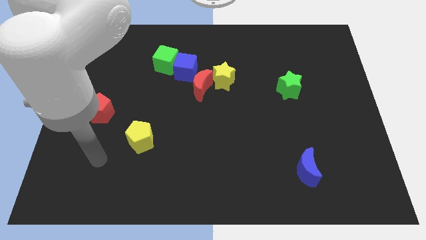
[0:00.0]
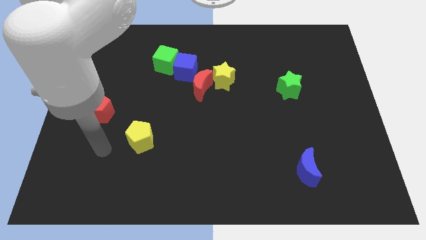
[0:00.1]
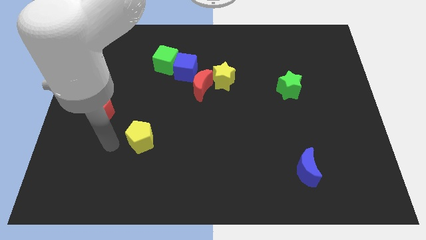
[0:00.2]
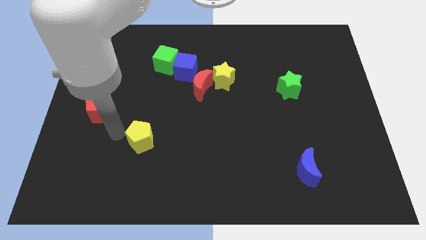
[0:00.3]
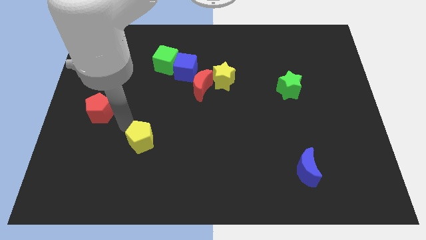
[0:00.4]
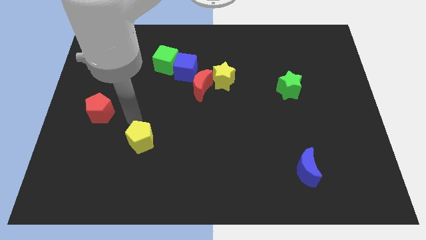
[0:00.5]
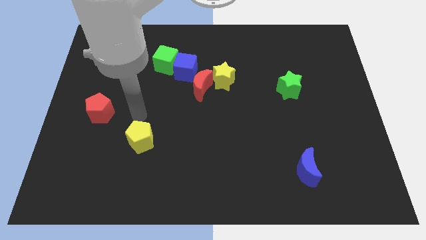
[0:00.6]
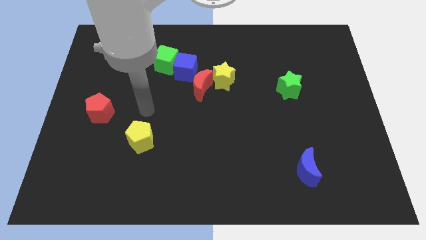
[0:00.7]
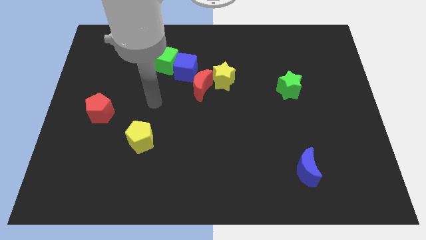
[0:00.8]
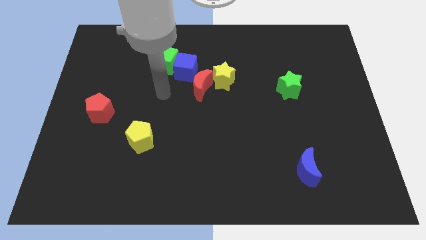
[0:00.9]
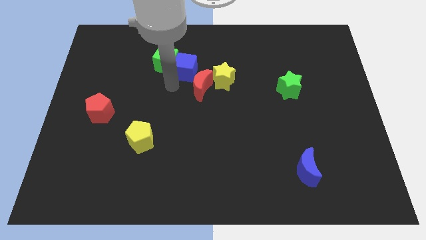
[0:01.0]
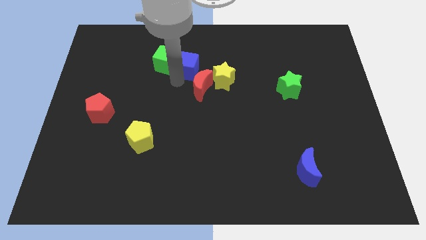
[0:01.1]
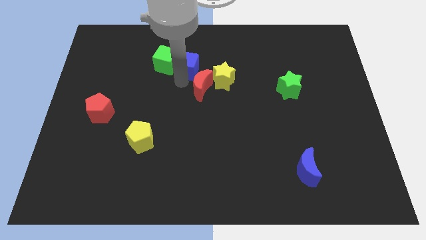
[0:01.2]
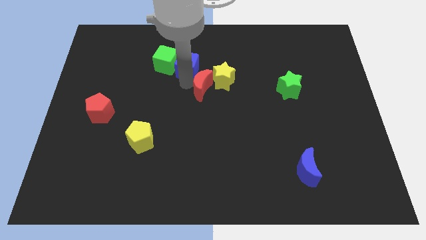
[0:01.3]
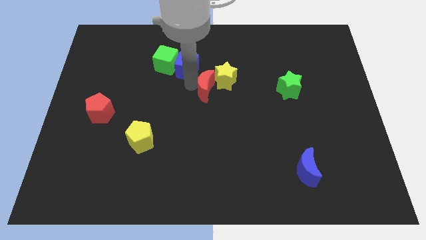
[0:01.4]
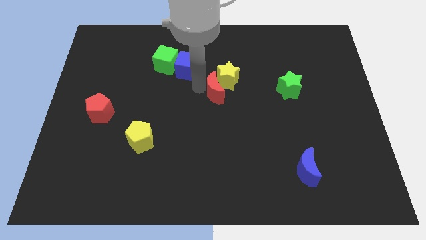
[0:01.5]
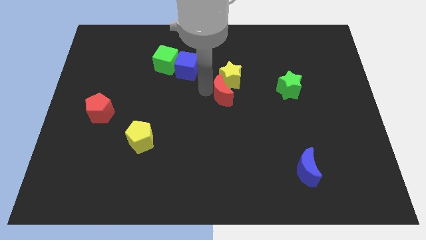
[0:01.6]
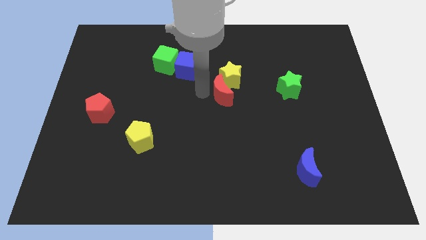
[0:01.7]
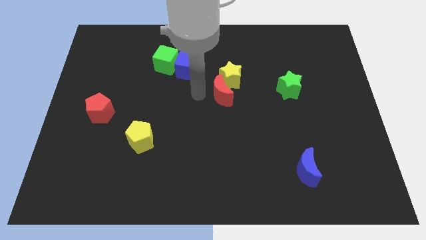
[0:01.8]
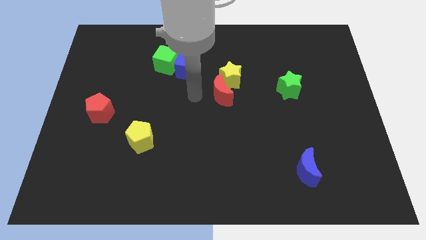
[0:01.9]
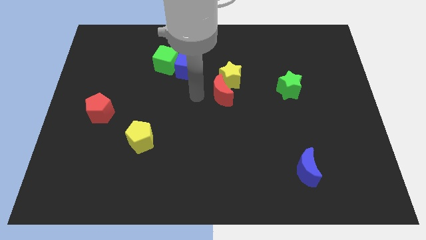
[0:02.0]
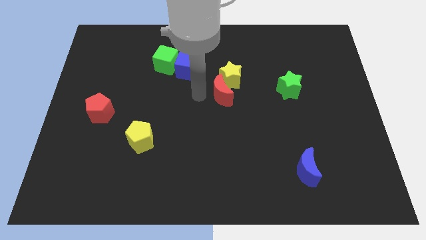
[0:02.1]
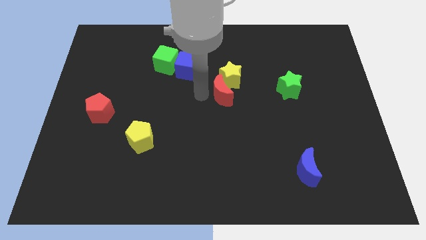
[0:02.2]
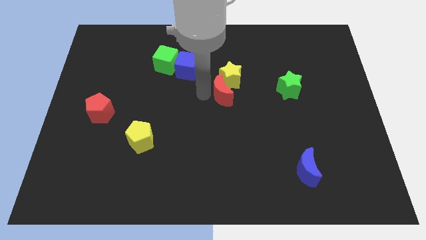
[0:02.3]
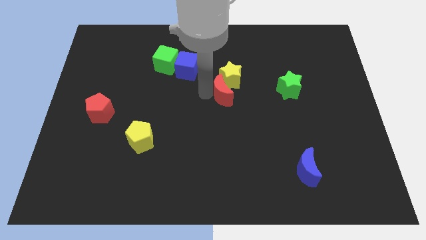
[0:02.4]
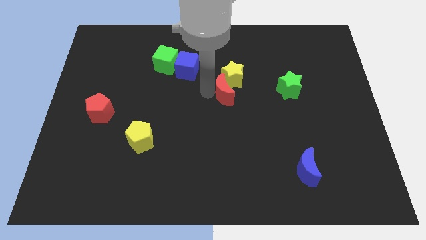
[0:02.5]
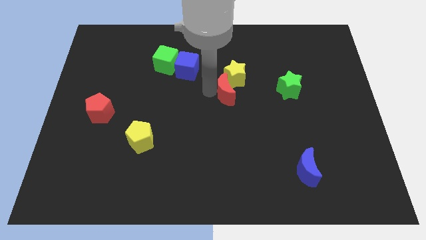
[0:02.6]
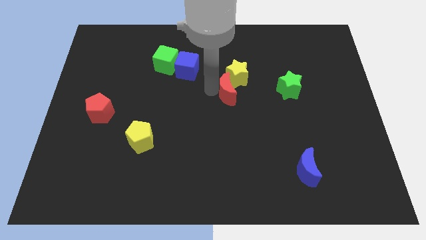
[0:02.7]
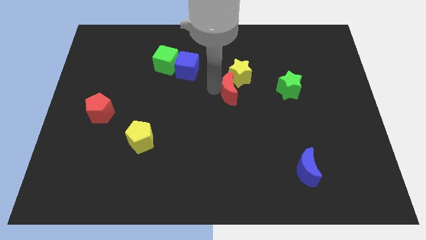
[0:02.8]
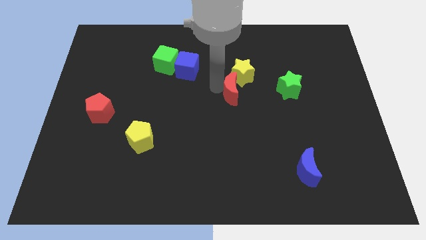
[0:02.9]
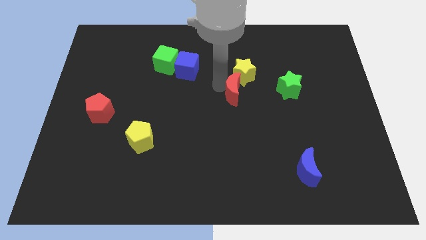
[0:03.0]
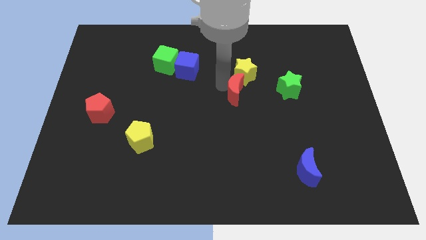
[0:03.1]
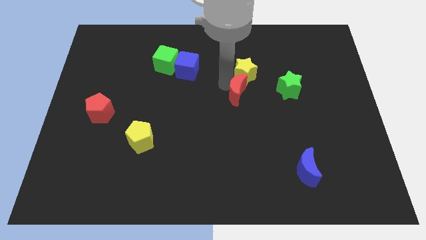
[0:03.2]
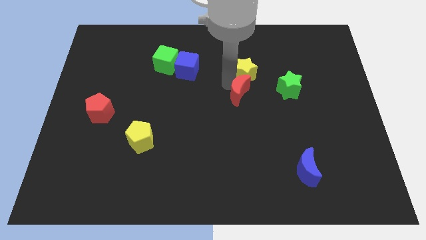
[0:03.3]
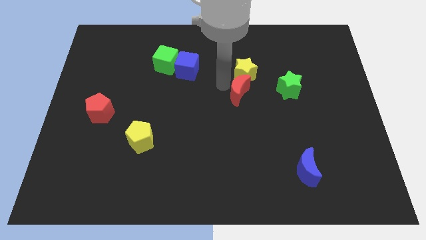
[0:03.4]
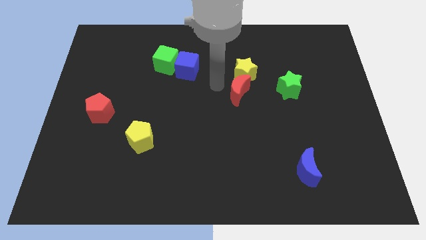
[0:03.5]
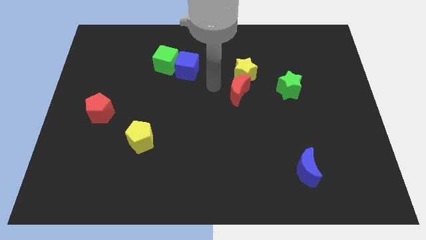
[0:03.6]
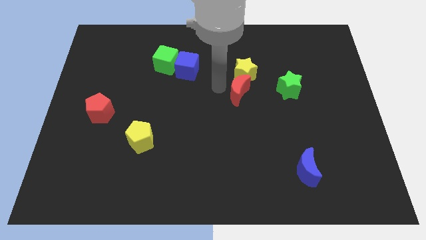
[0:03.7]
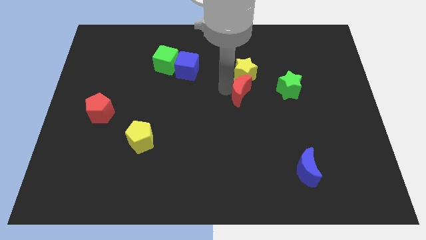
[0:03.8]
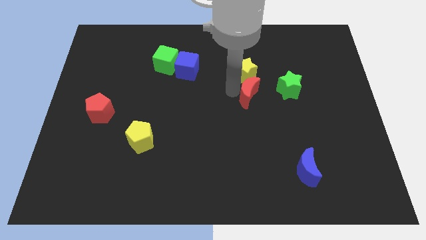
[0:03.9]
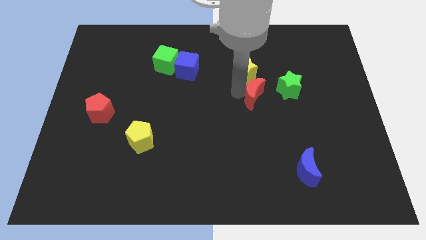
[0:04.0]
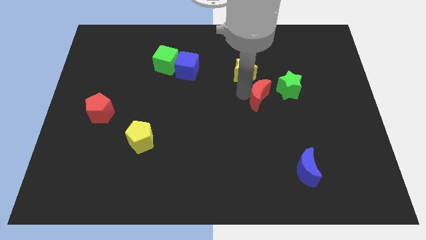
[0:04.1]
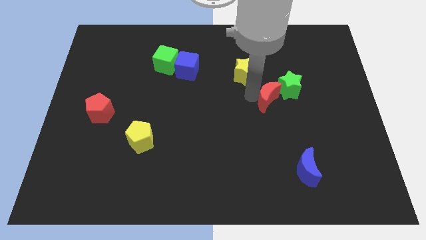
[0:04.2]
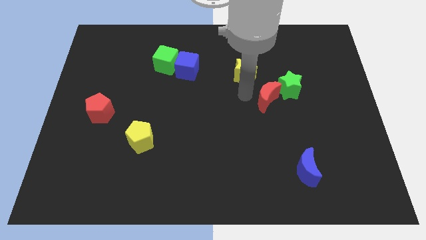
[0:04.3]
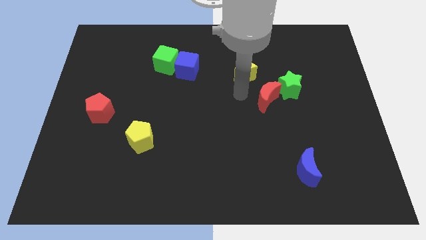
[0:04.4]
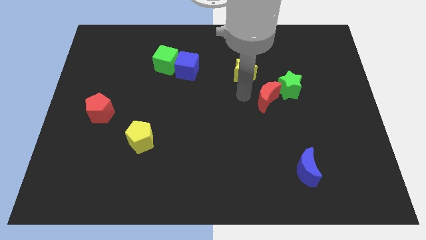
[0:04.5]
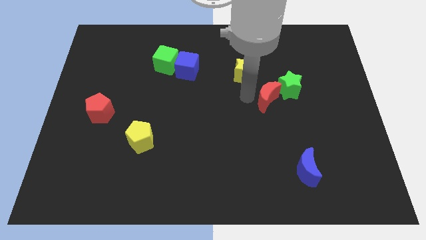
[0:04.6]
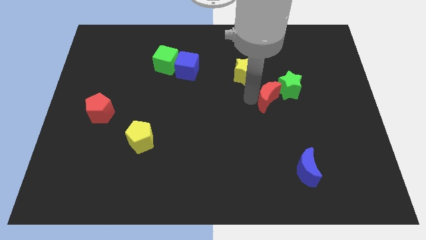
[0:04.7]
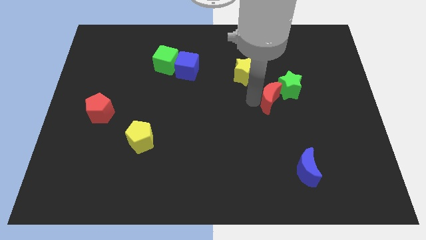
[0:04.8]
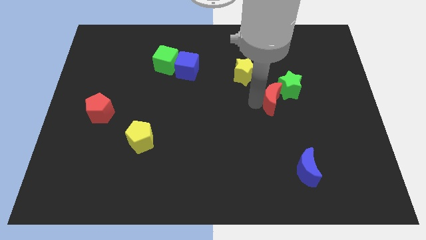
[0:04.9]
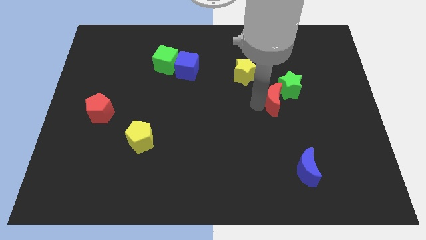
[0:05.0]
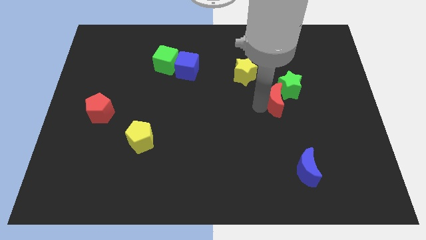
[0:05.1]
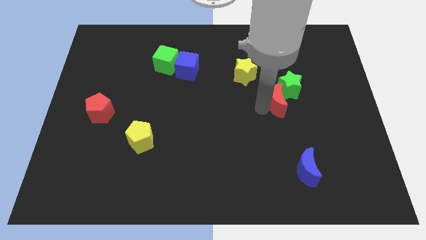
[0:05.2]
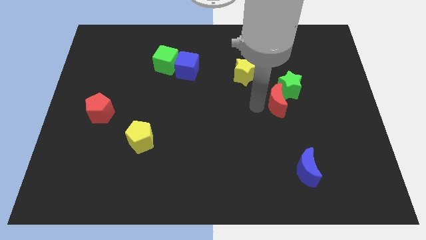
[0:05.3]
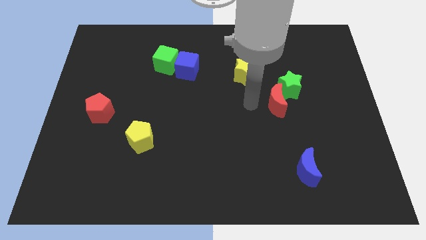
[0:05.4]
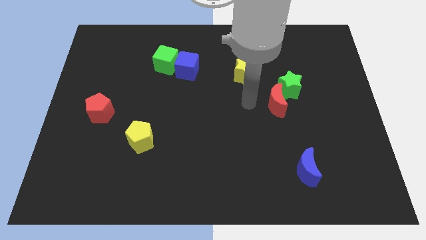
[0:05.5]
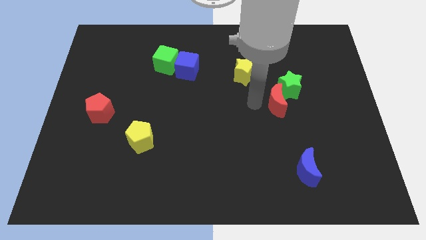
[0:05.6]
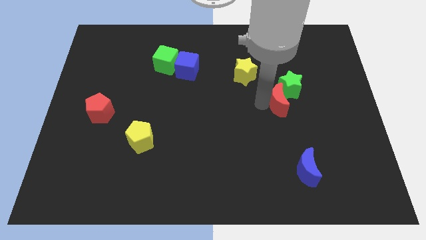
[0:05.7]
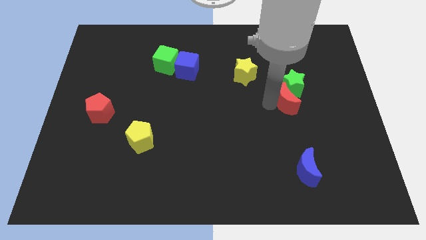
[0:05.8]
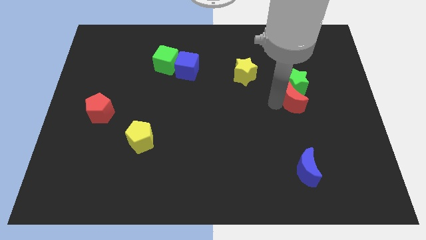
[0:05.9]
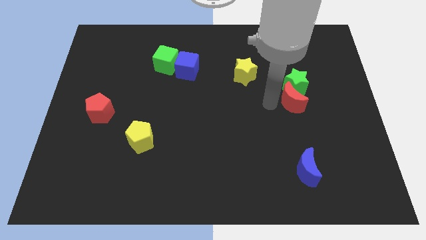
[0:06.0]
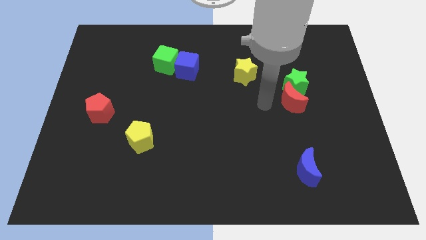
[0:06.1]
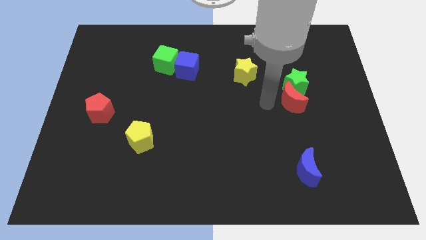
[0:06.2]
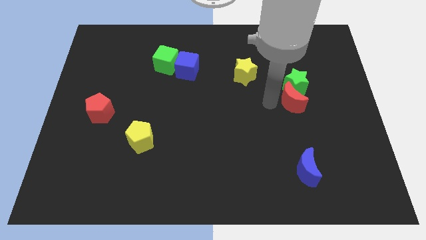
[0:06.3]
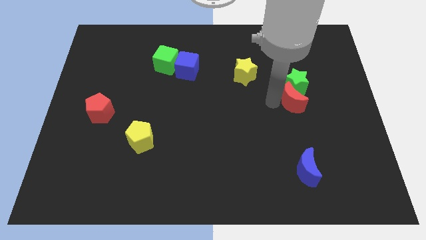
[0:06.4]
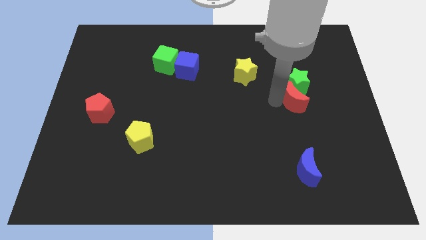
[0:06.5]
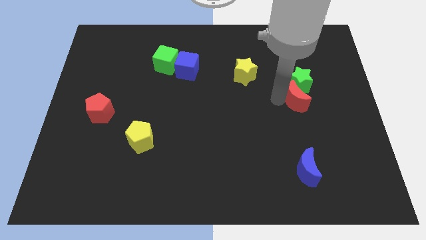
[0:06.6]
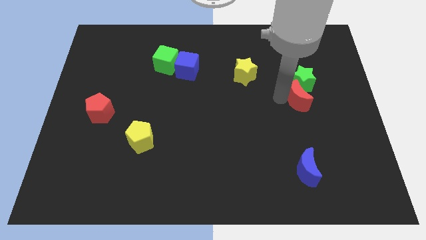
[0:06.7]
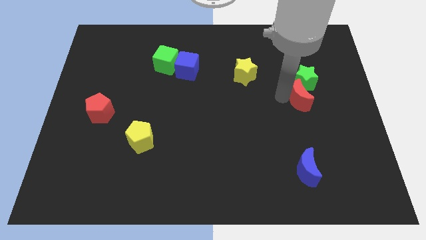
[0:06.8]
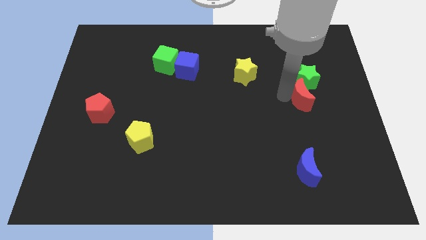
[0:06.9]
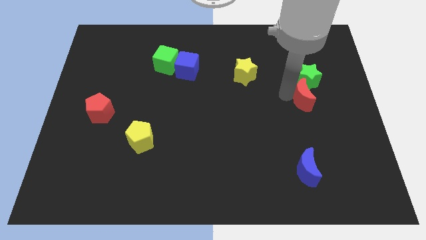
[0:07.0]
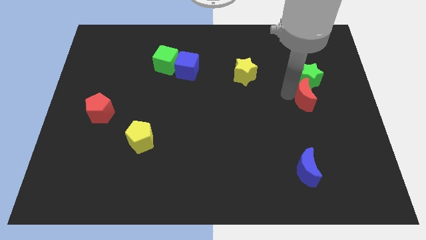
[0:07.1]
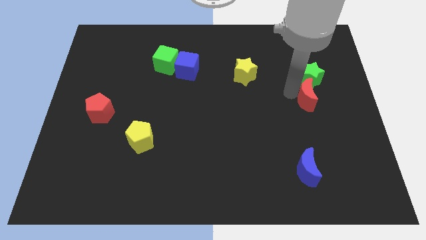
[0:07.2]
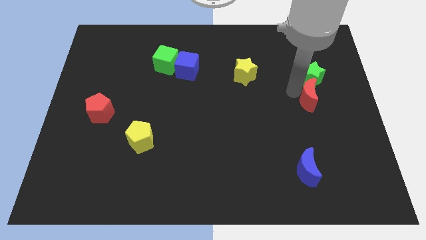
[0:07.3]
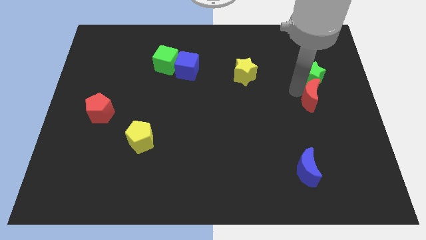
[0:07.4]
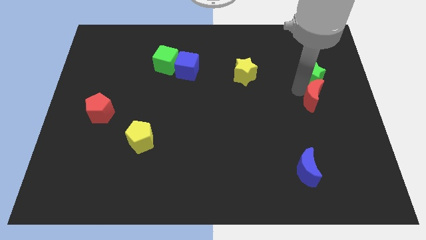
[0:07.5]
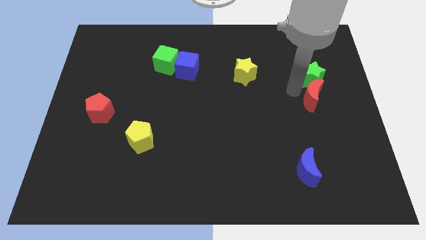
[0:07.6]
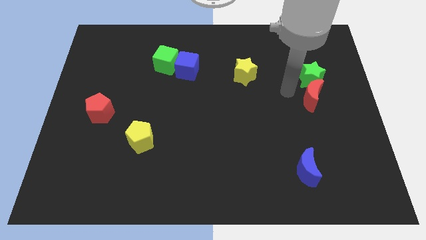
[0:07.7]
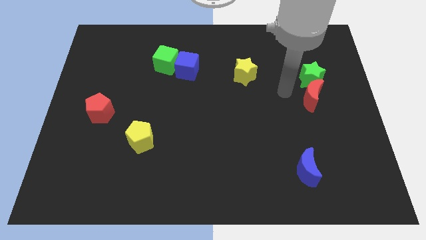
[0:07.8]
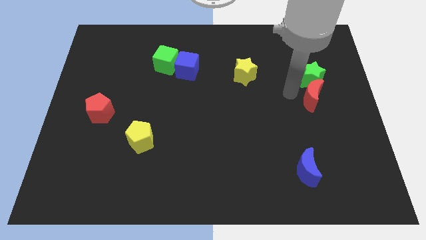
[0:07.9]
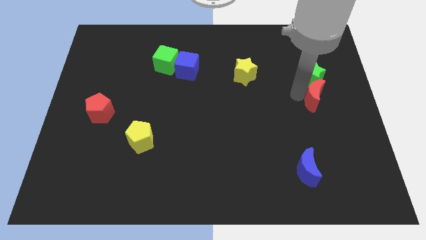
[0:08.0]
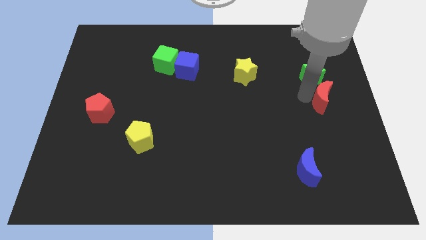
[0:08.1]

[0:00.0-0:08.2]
slide the red moon to the center right
